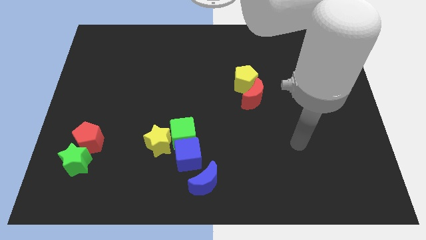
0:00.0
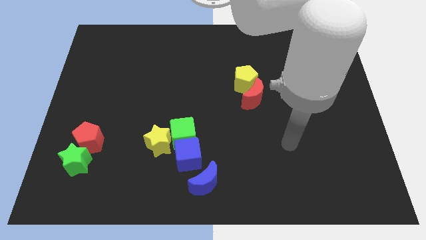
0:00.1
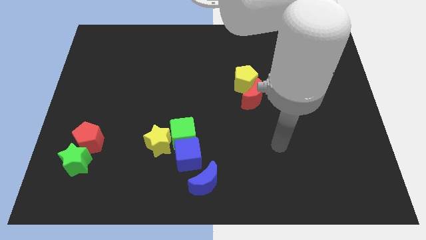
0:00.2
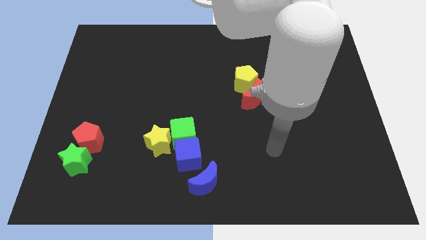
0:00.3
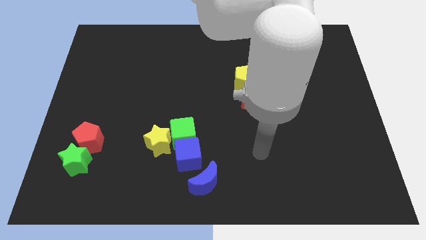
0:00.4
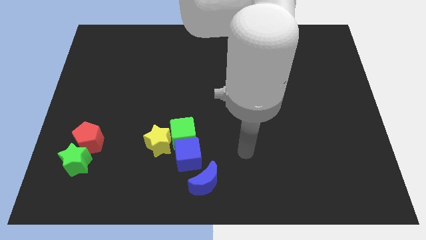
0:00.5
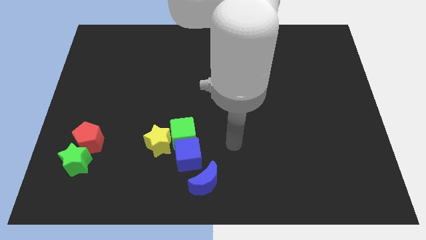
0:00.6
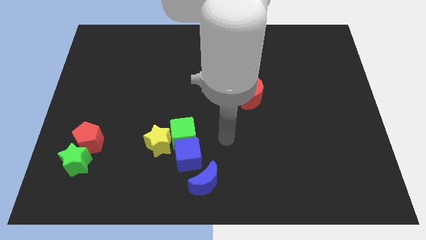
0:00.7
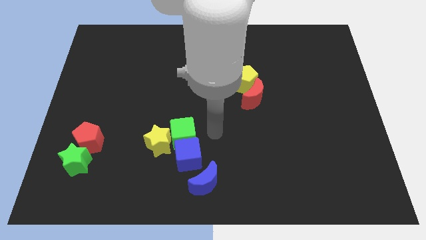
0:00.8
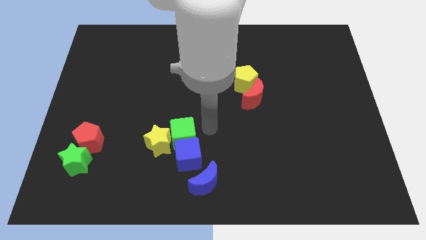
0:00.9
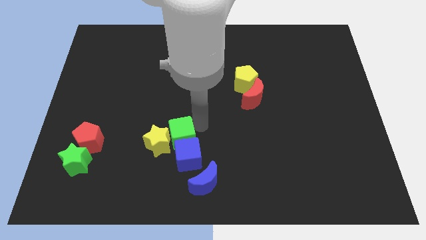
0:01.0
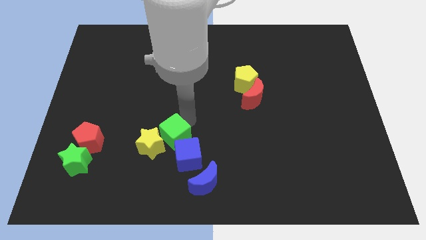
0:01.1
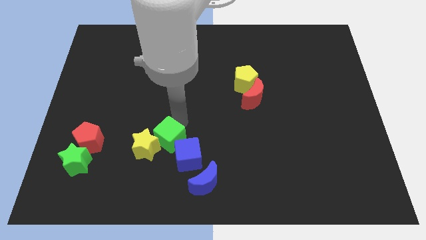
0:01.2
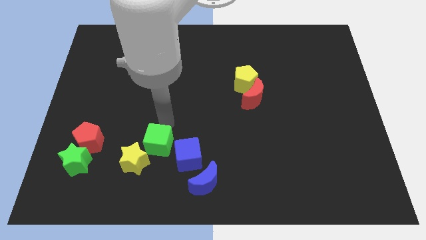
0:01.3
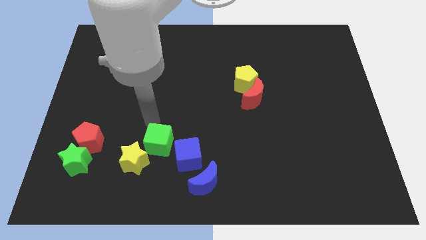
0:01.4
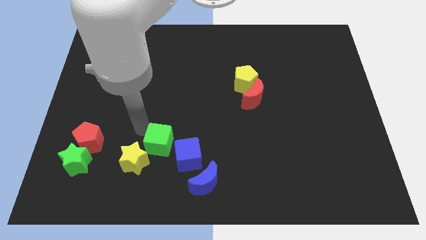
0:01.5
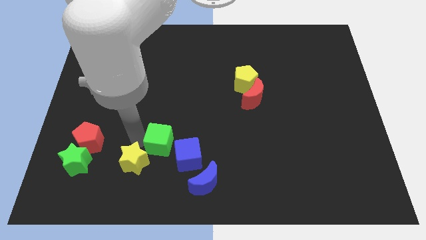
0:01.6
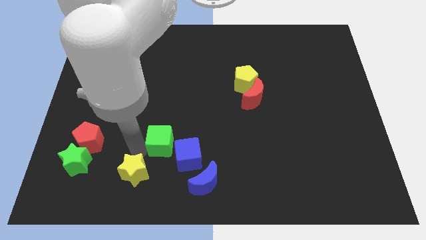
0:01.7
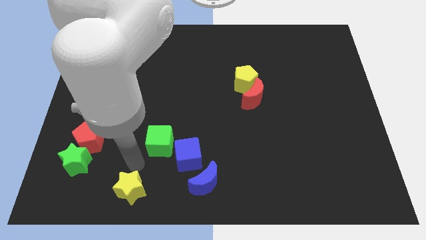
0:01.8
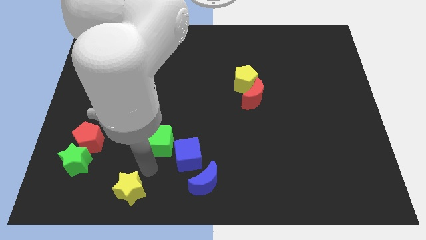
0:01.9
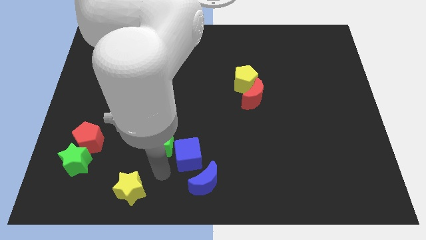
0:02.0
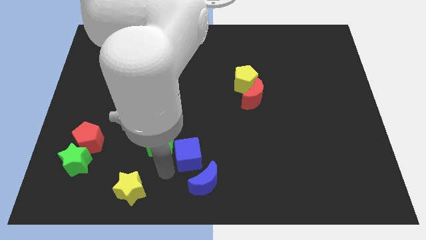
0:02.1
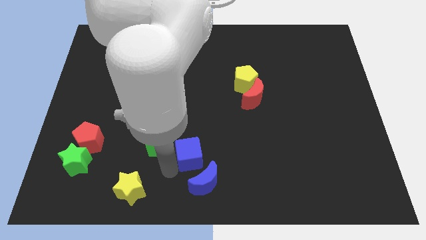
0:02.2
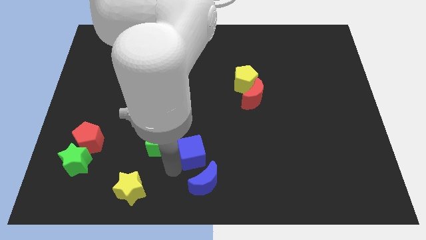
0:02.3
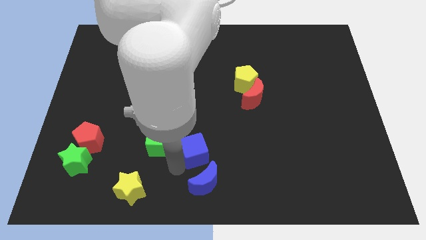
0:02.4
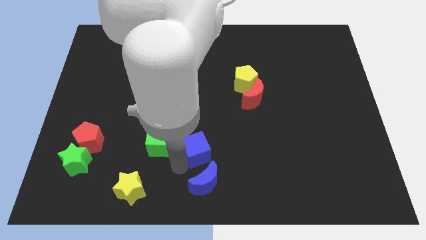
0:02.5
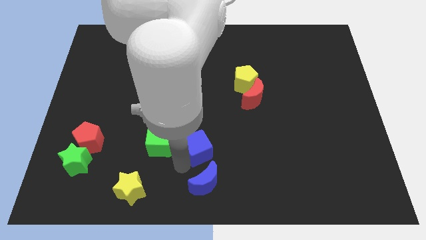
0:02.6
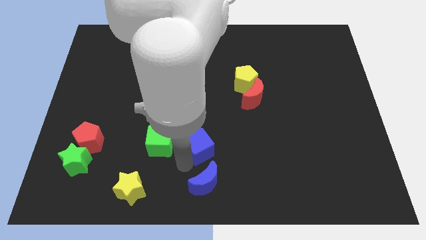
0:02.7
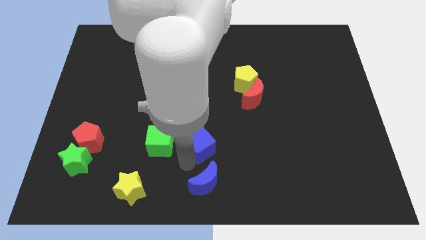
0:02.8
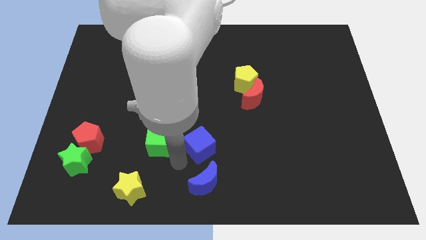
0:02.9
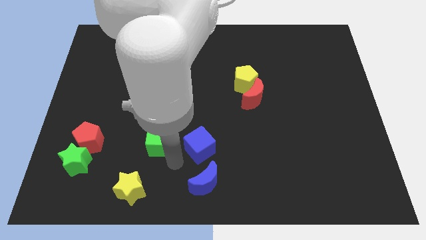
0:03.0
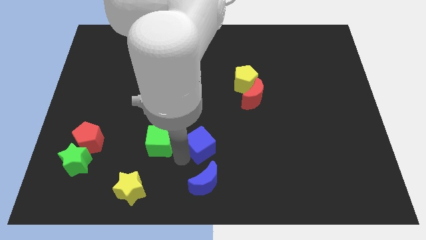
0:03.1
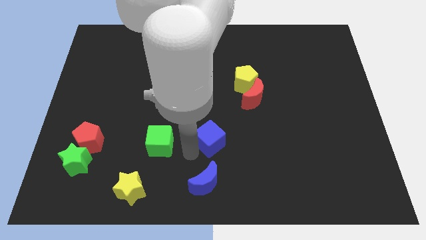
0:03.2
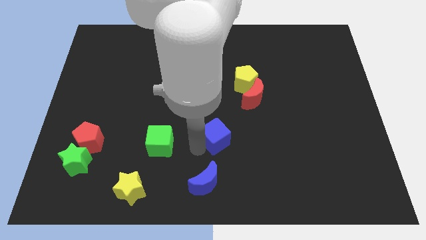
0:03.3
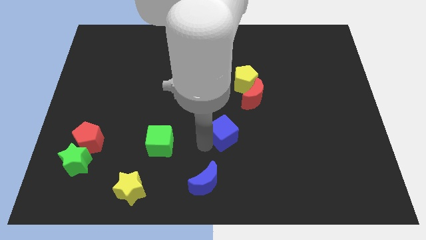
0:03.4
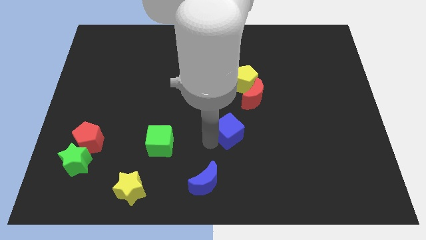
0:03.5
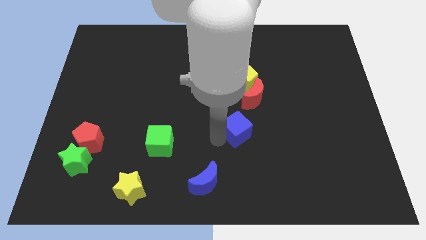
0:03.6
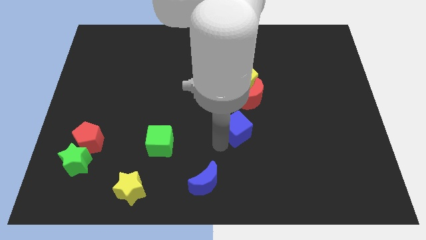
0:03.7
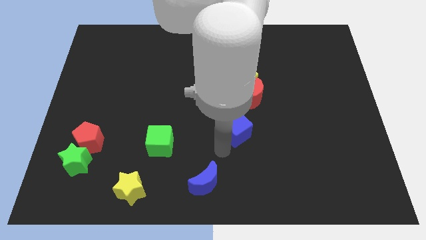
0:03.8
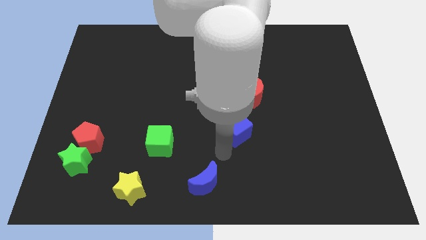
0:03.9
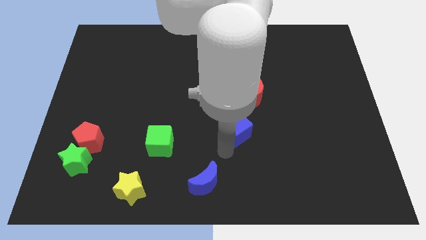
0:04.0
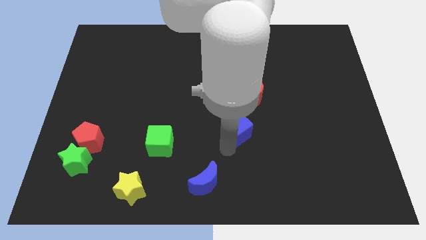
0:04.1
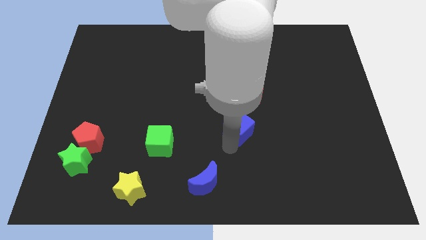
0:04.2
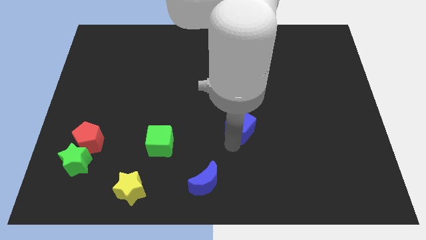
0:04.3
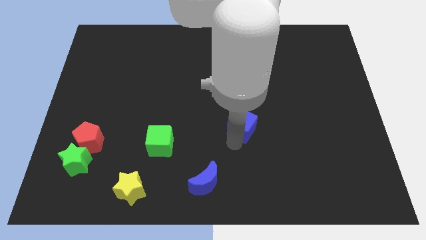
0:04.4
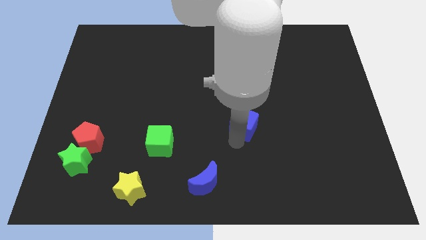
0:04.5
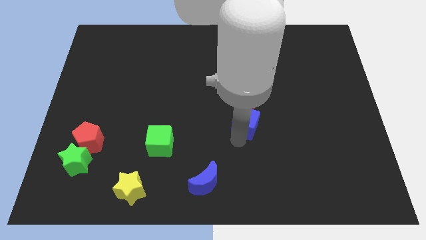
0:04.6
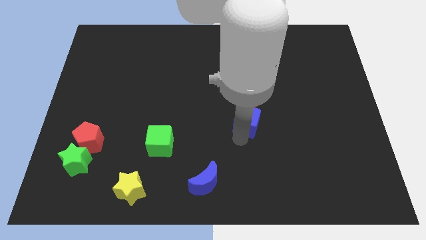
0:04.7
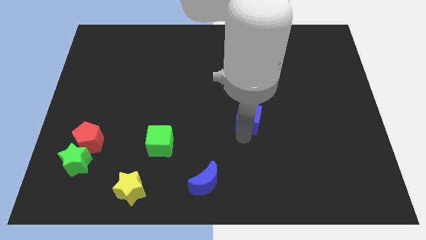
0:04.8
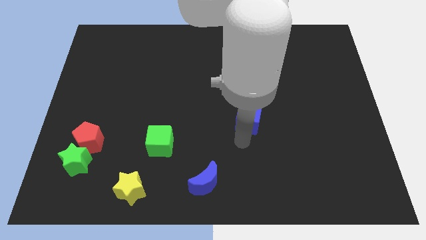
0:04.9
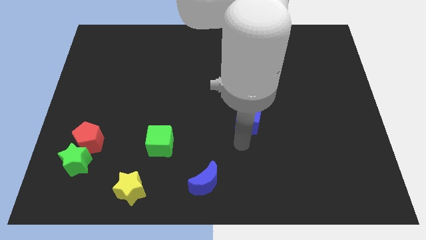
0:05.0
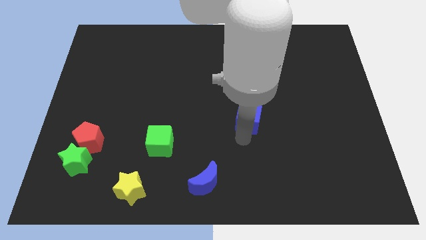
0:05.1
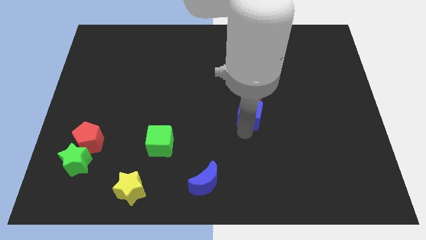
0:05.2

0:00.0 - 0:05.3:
slide the blue cube close to the red moon

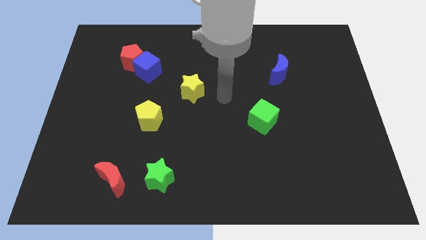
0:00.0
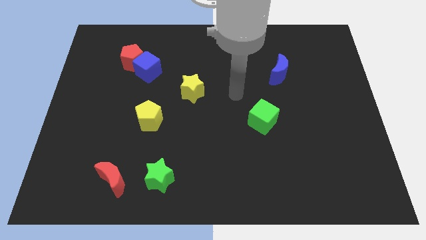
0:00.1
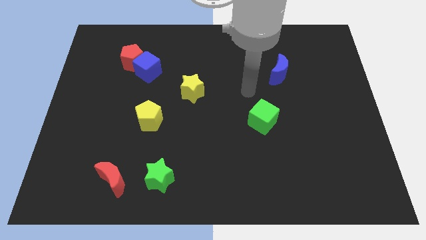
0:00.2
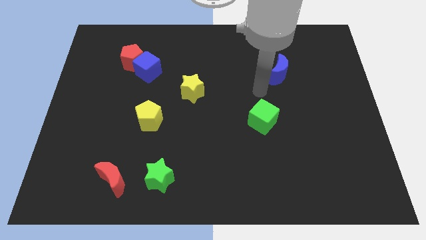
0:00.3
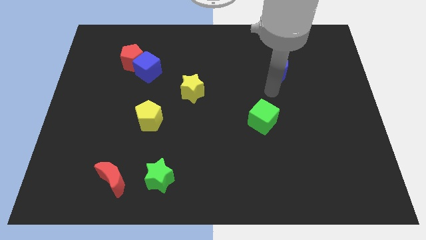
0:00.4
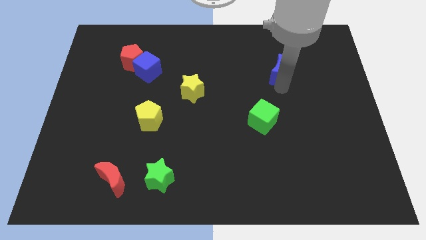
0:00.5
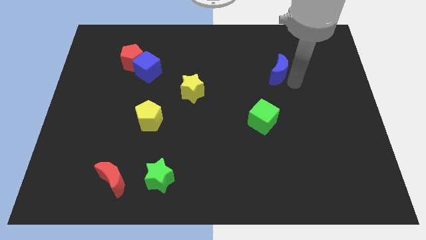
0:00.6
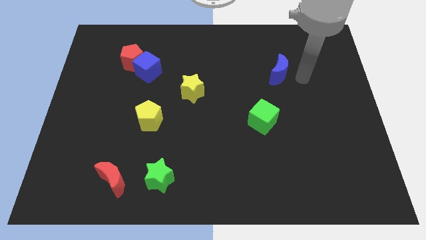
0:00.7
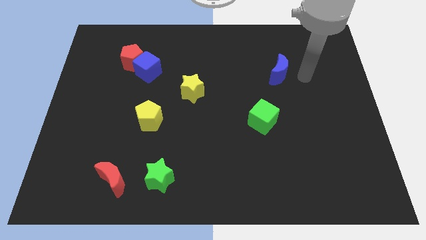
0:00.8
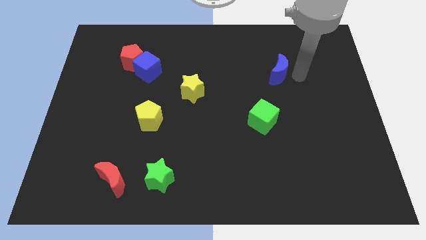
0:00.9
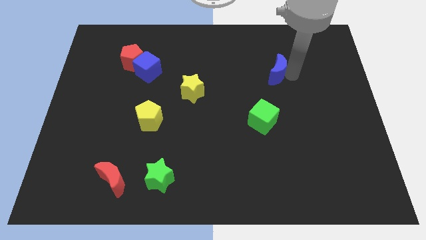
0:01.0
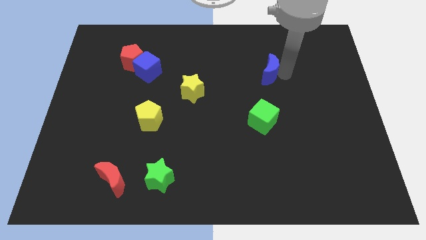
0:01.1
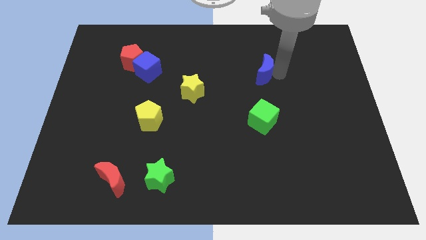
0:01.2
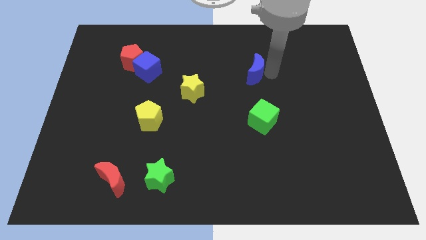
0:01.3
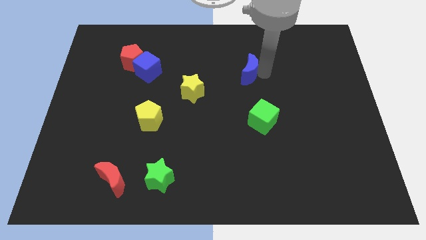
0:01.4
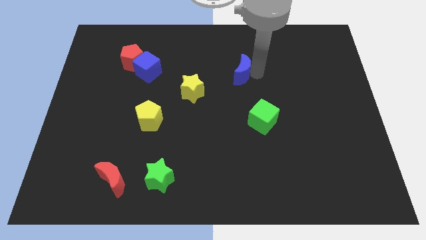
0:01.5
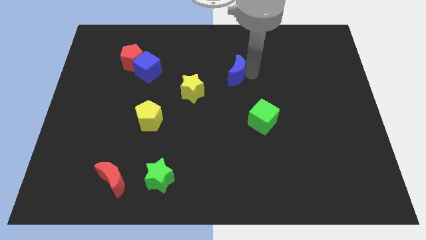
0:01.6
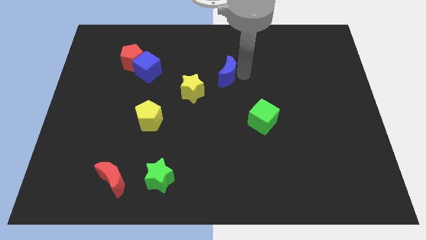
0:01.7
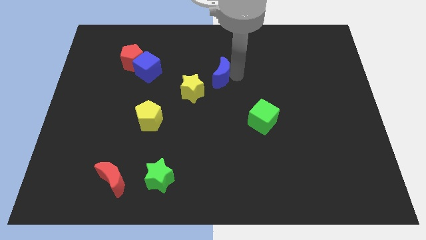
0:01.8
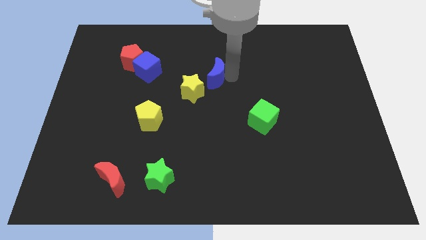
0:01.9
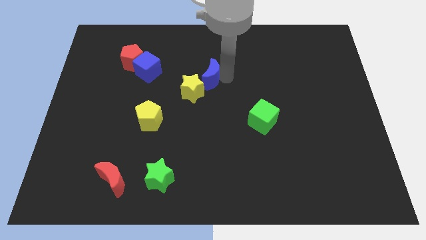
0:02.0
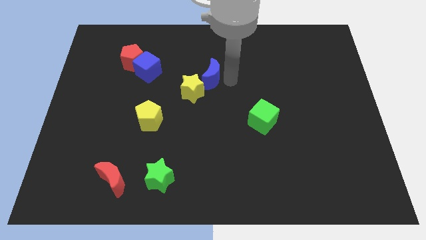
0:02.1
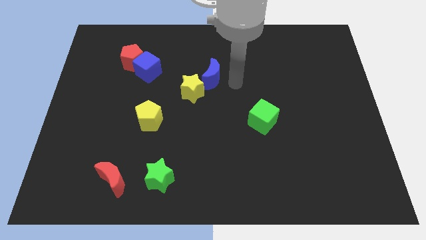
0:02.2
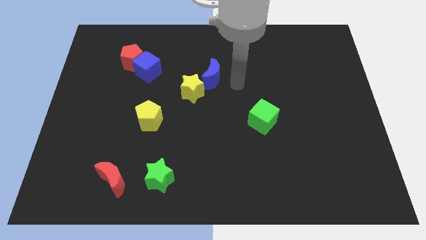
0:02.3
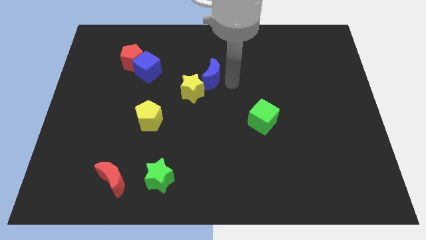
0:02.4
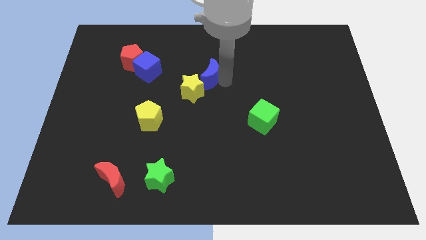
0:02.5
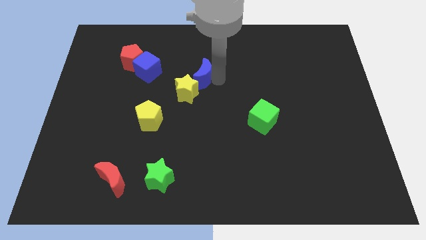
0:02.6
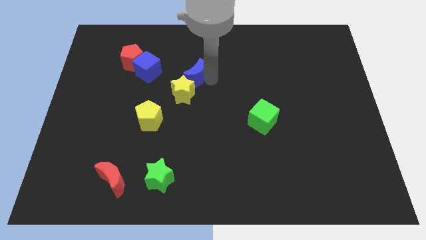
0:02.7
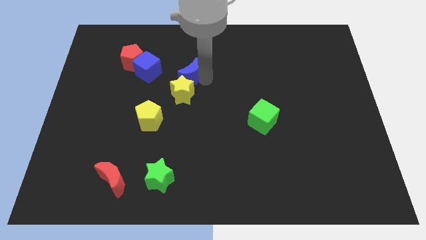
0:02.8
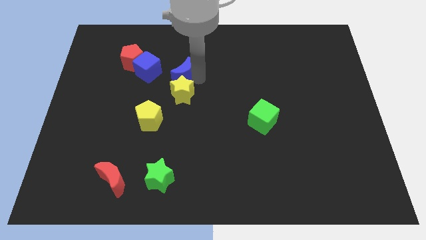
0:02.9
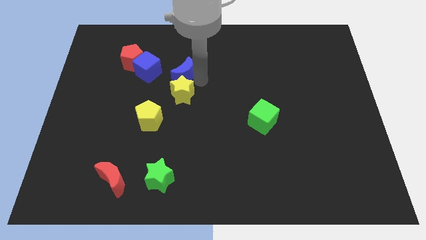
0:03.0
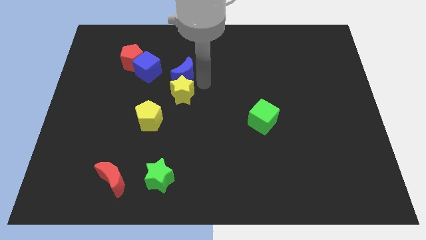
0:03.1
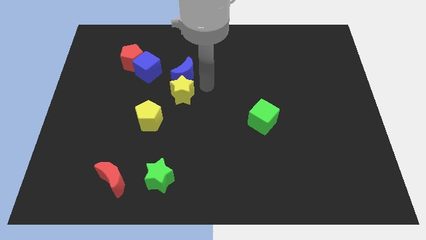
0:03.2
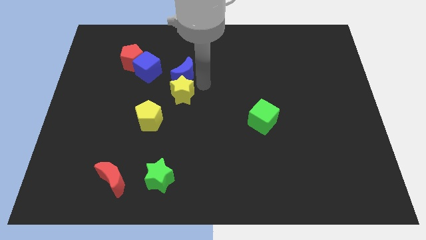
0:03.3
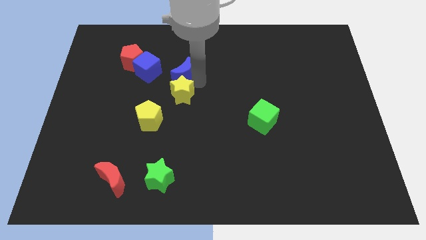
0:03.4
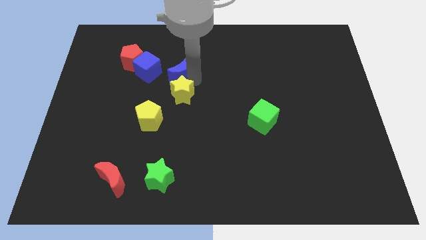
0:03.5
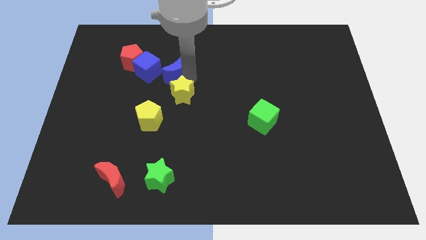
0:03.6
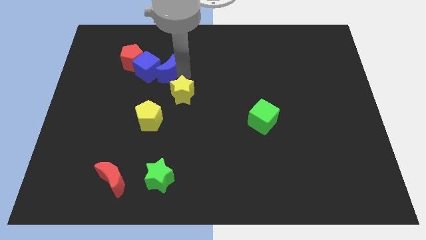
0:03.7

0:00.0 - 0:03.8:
put the blue moon to the blue cube
